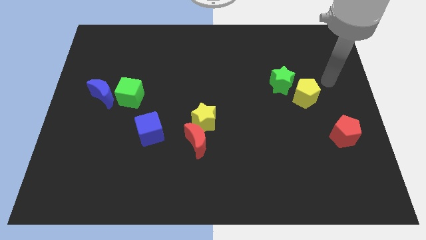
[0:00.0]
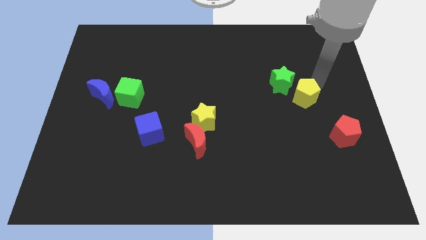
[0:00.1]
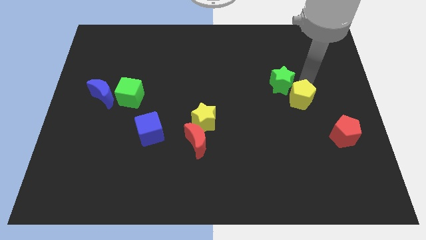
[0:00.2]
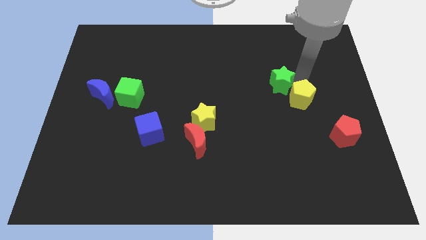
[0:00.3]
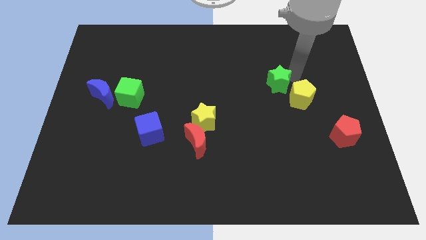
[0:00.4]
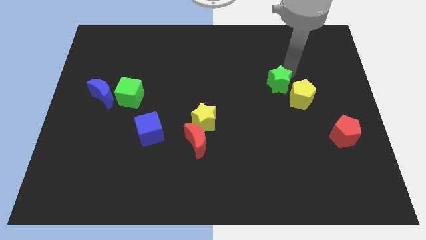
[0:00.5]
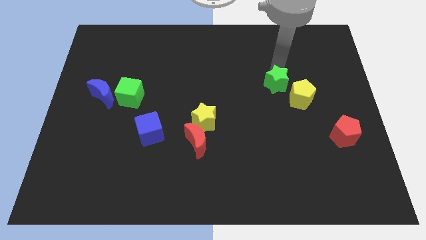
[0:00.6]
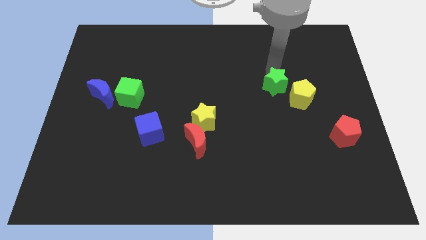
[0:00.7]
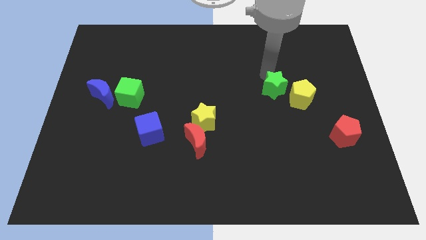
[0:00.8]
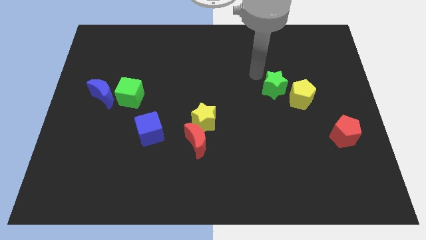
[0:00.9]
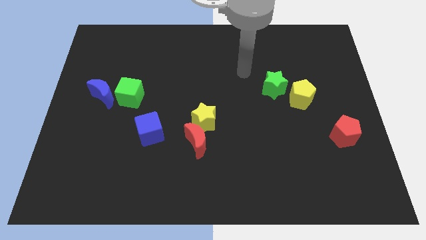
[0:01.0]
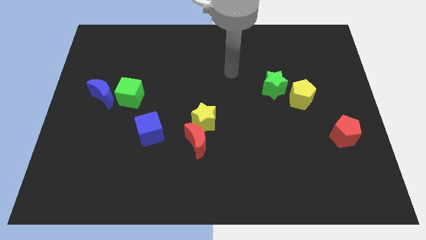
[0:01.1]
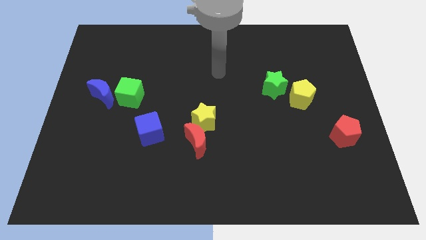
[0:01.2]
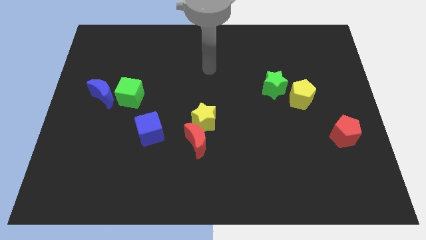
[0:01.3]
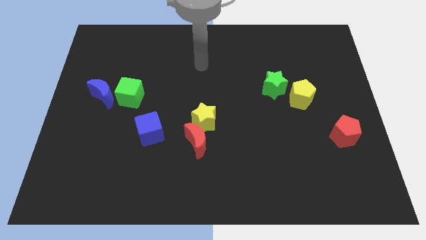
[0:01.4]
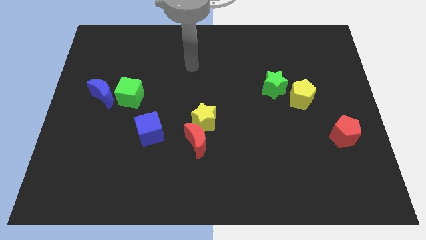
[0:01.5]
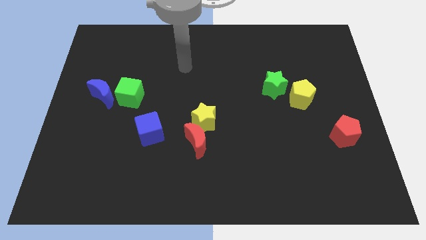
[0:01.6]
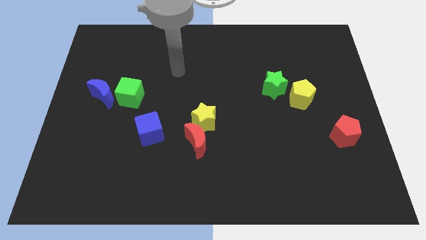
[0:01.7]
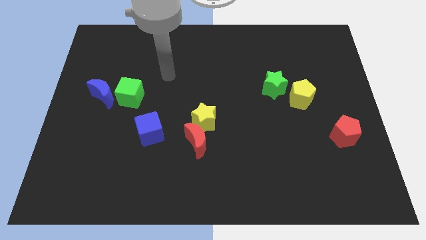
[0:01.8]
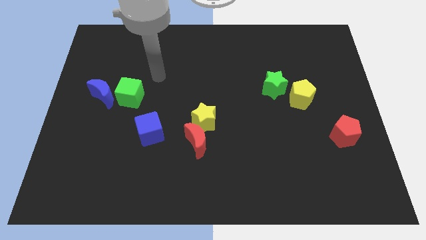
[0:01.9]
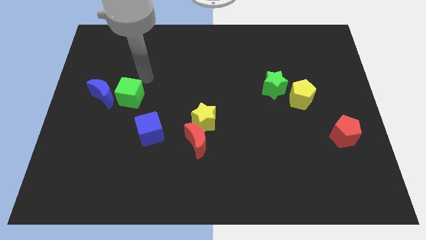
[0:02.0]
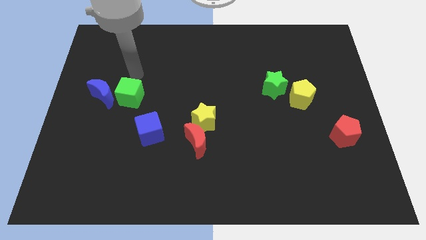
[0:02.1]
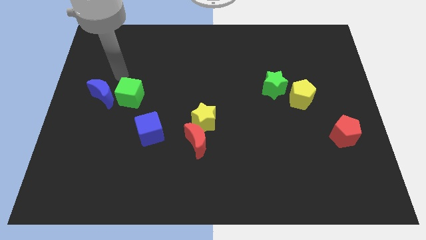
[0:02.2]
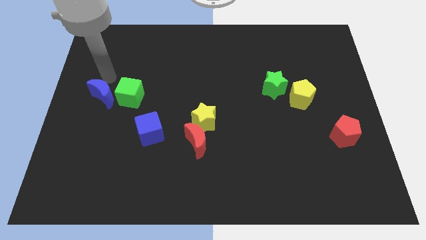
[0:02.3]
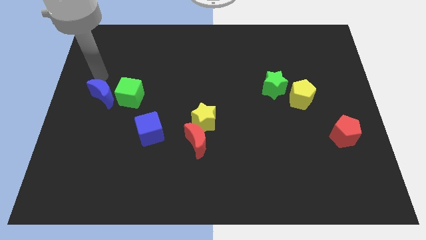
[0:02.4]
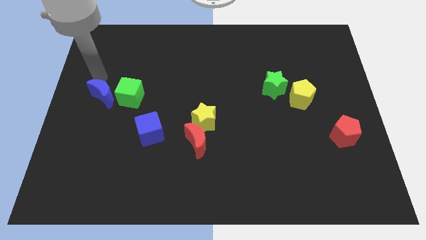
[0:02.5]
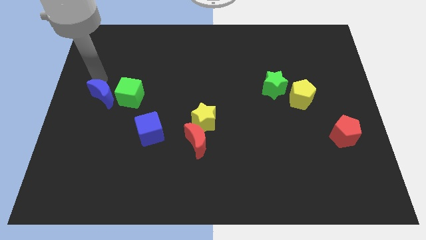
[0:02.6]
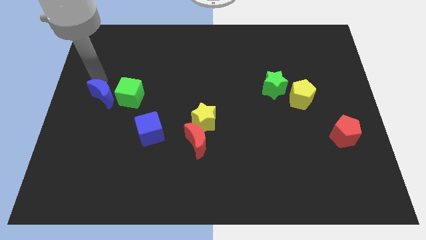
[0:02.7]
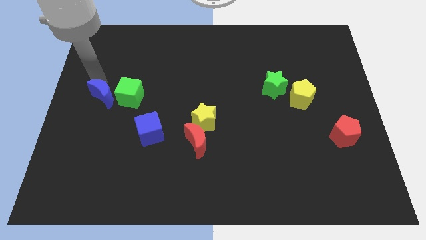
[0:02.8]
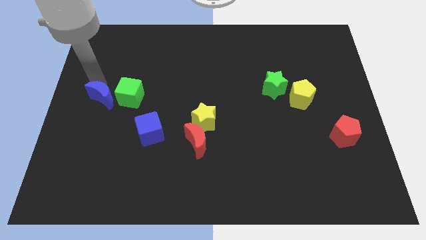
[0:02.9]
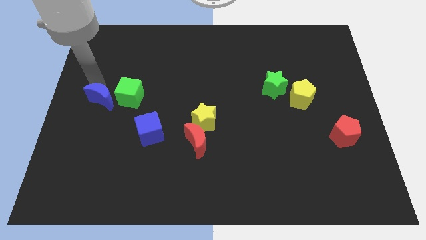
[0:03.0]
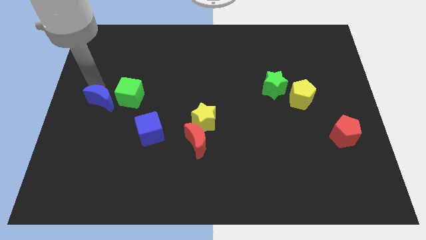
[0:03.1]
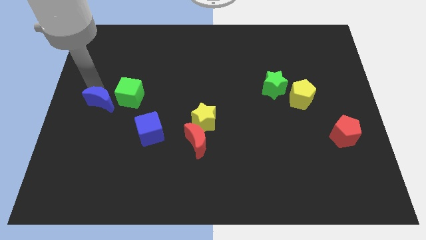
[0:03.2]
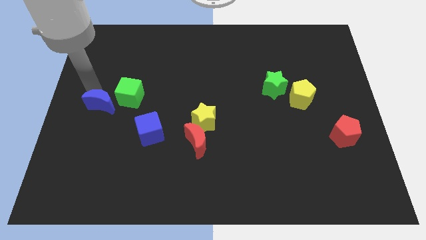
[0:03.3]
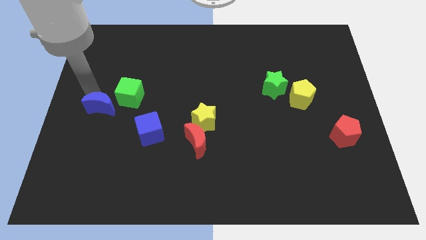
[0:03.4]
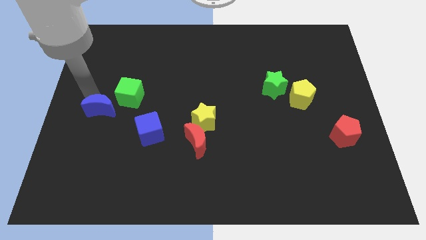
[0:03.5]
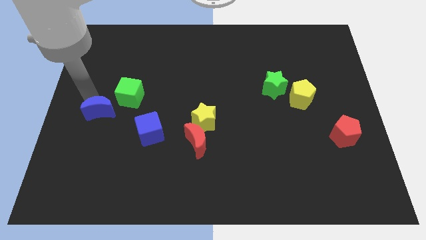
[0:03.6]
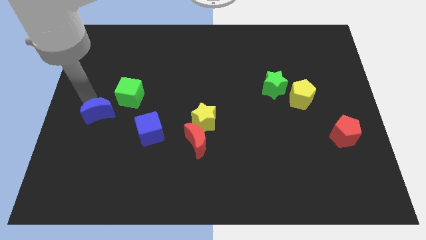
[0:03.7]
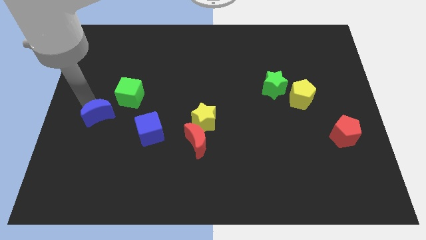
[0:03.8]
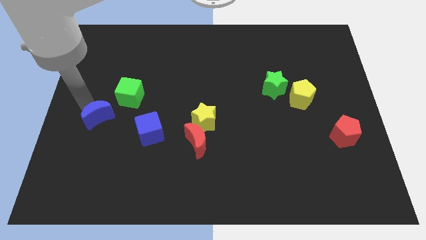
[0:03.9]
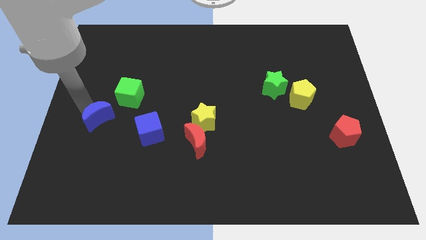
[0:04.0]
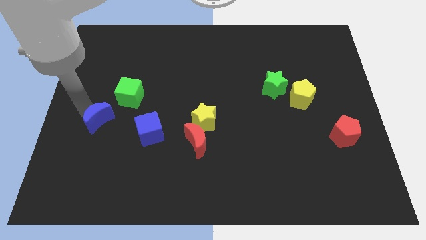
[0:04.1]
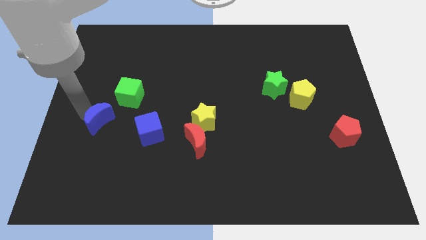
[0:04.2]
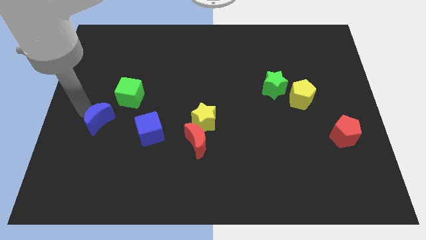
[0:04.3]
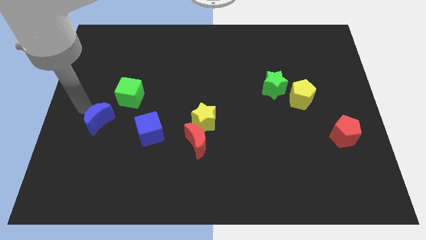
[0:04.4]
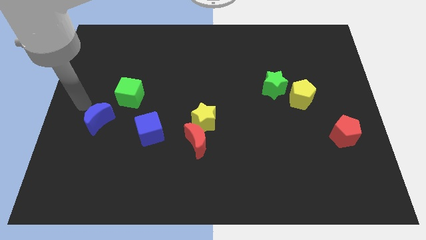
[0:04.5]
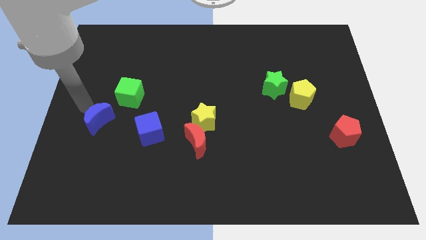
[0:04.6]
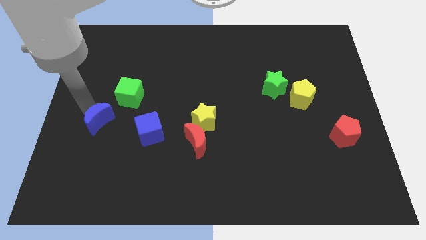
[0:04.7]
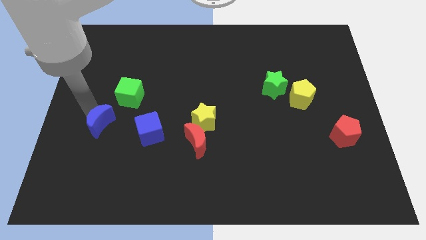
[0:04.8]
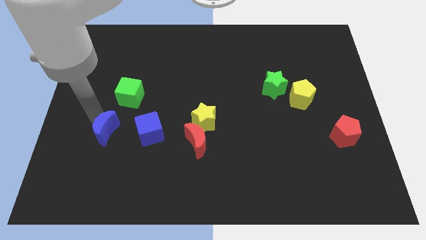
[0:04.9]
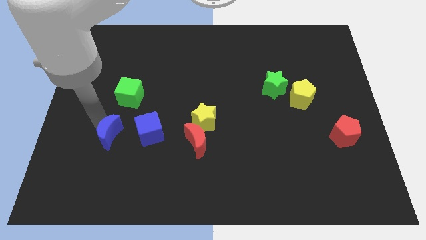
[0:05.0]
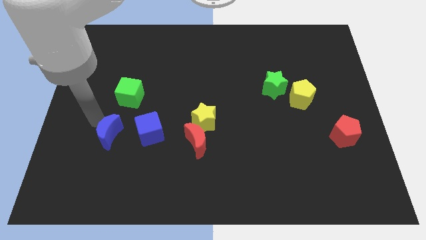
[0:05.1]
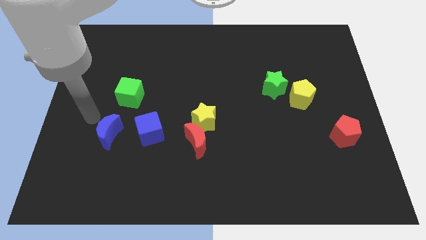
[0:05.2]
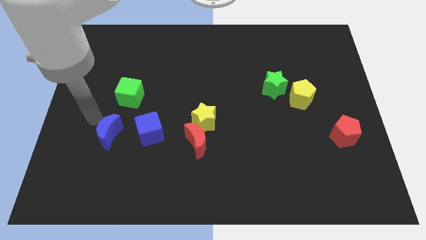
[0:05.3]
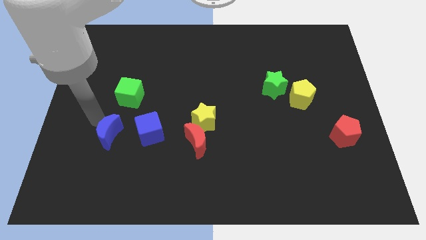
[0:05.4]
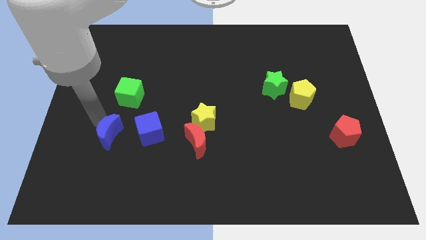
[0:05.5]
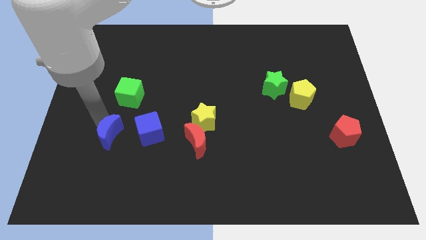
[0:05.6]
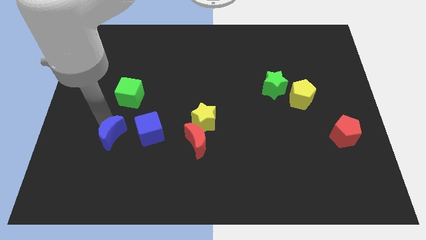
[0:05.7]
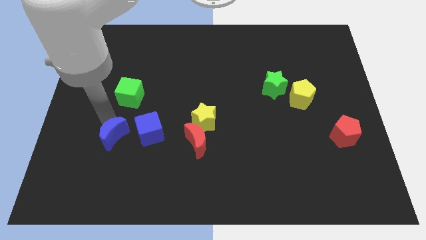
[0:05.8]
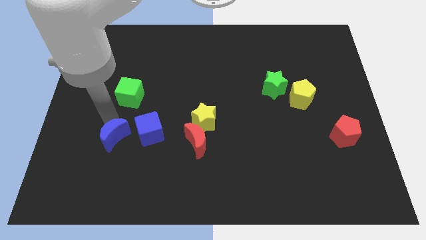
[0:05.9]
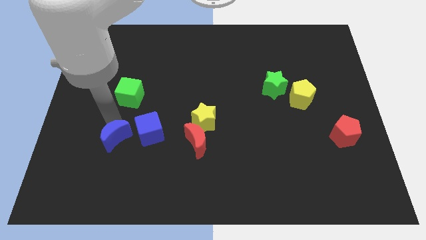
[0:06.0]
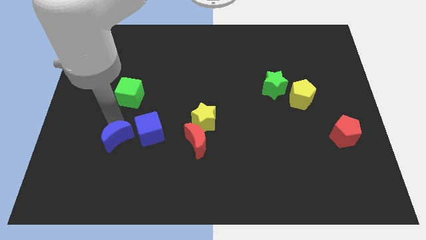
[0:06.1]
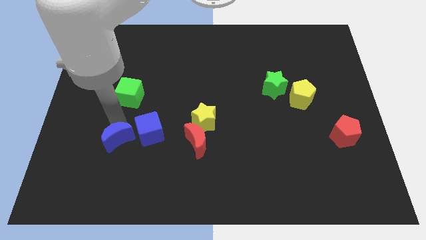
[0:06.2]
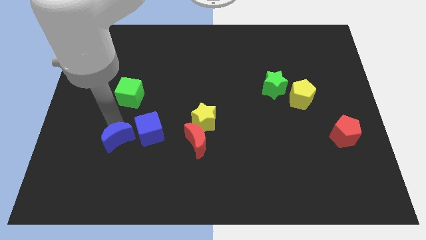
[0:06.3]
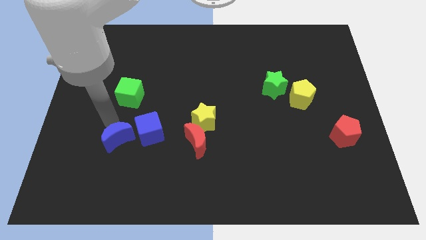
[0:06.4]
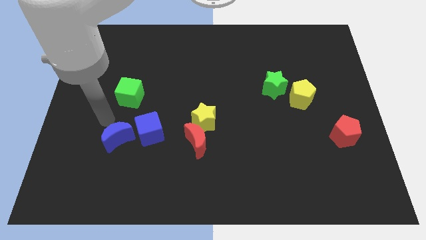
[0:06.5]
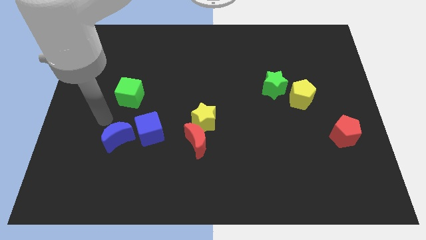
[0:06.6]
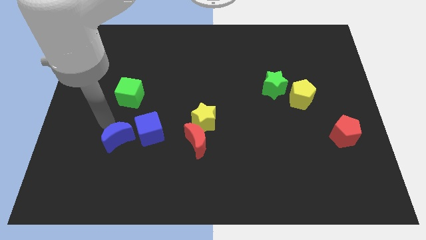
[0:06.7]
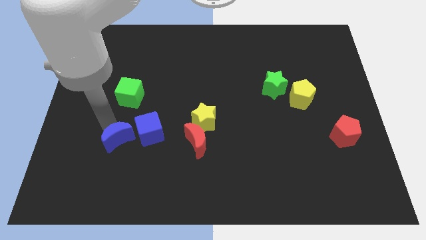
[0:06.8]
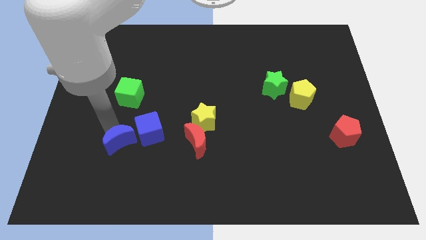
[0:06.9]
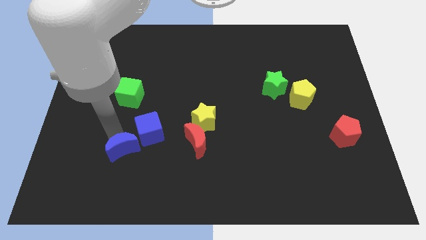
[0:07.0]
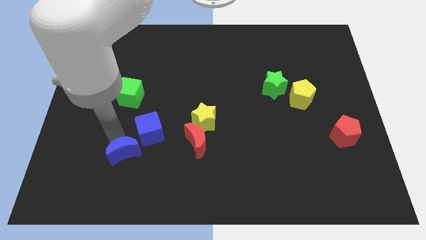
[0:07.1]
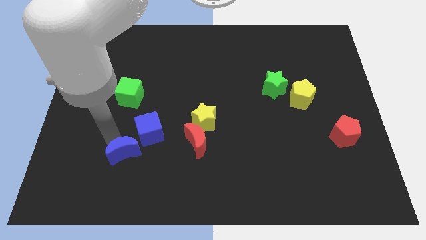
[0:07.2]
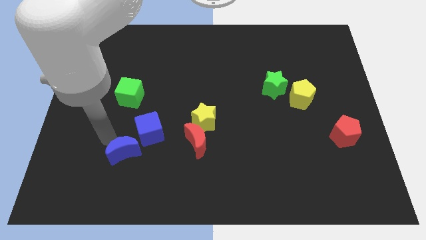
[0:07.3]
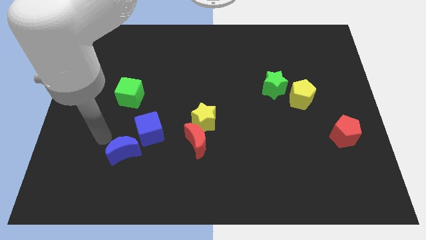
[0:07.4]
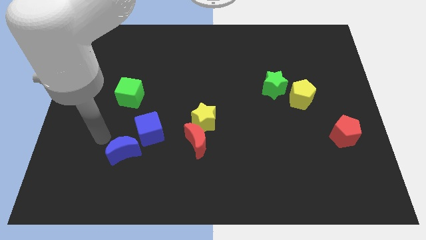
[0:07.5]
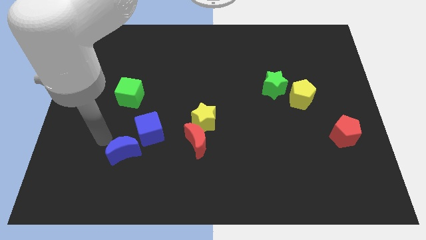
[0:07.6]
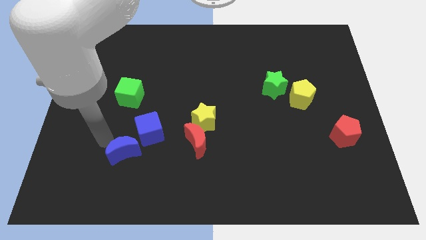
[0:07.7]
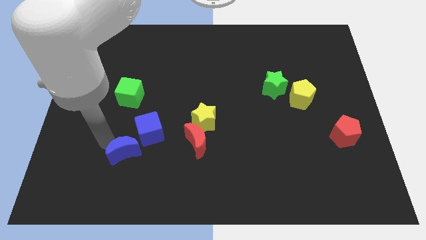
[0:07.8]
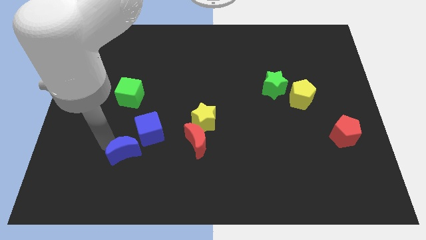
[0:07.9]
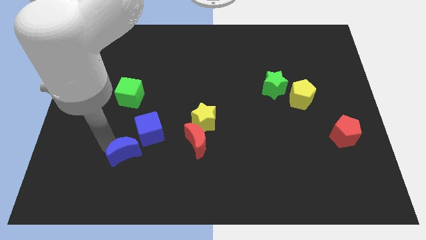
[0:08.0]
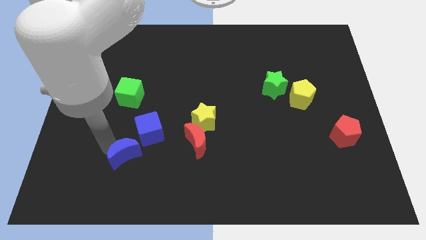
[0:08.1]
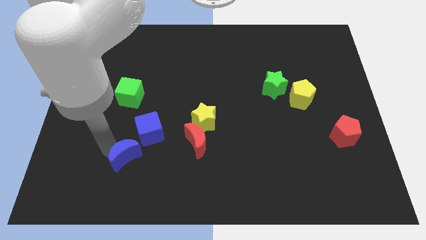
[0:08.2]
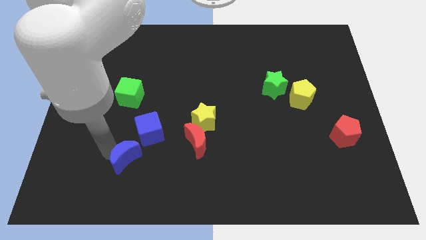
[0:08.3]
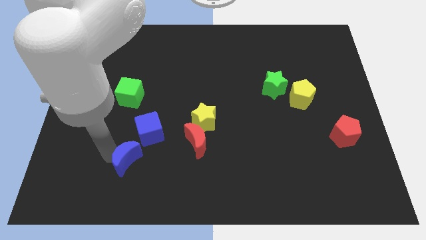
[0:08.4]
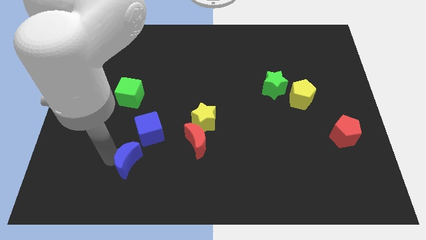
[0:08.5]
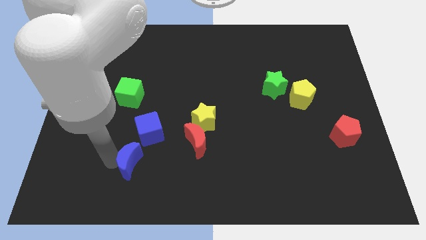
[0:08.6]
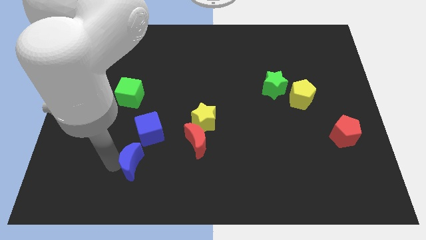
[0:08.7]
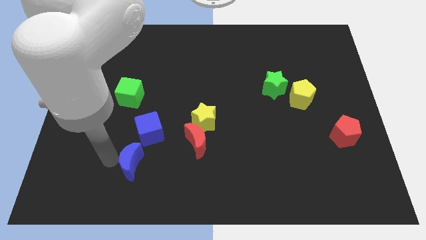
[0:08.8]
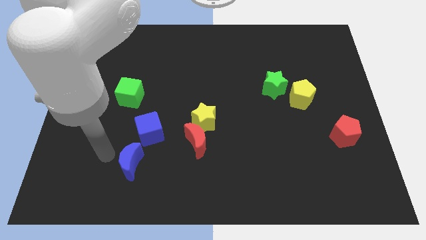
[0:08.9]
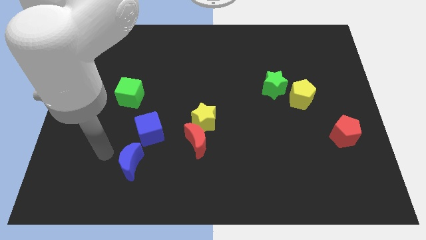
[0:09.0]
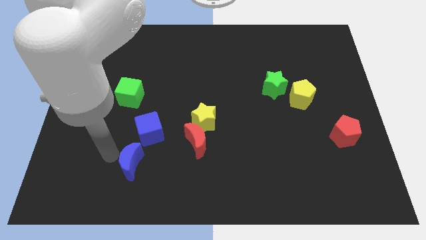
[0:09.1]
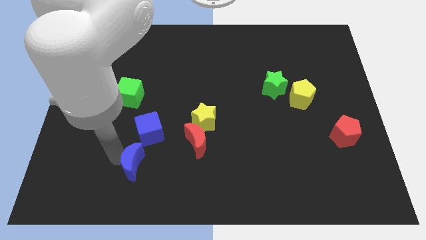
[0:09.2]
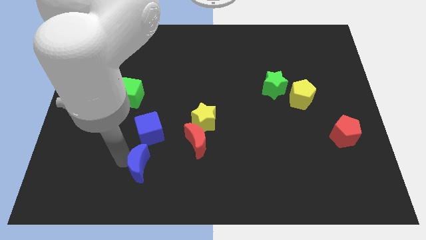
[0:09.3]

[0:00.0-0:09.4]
slide the blue moon down and right
